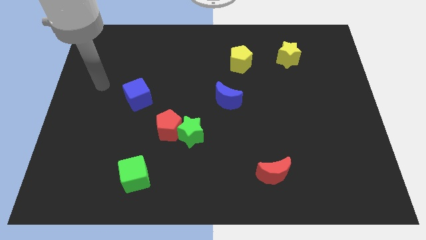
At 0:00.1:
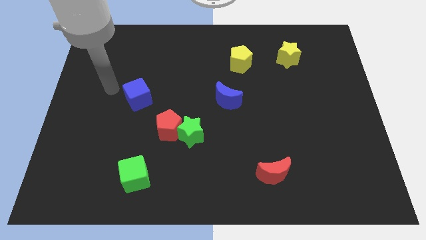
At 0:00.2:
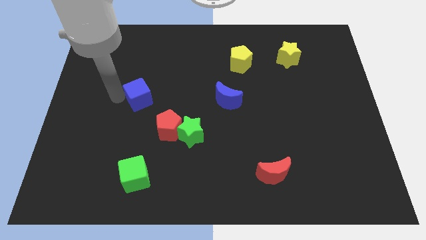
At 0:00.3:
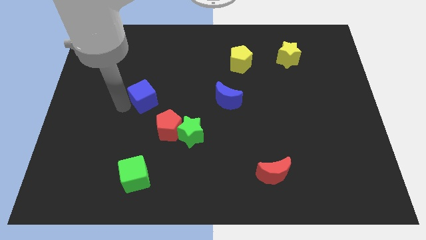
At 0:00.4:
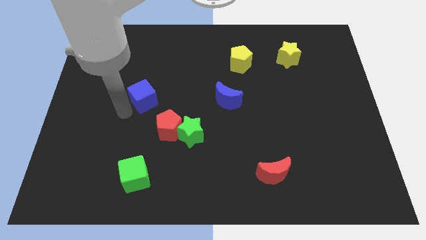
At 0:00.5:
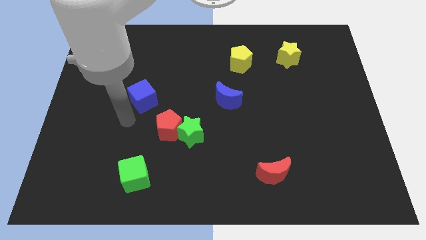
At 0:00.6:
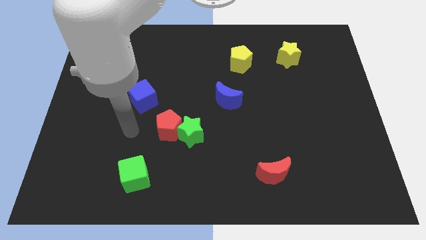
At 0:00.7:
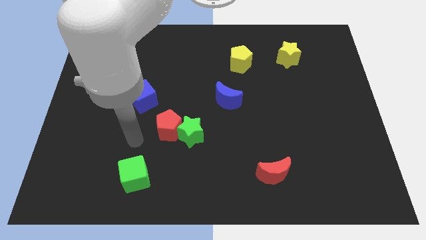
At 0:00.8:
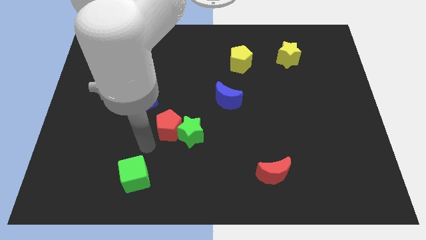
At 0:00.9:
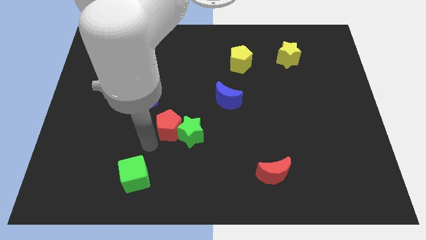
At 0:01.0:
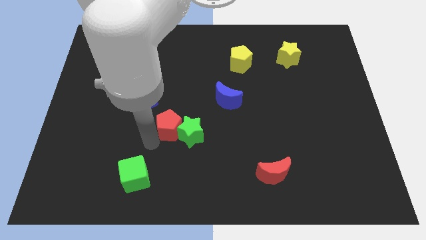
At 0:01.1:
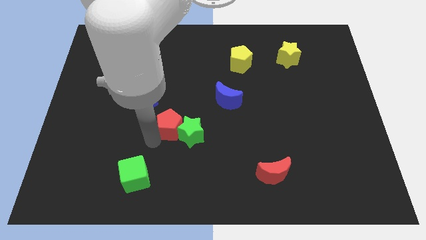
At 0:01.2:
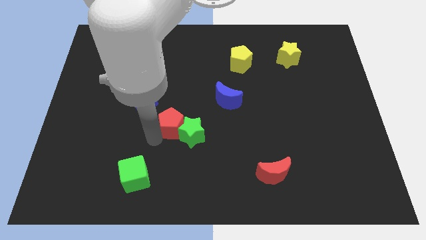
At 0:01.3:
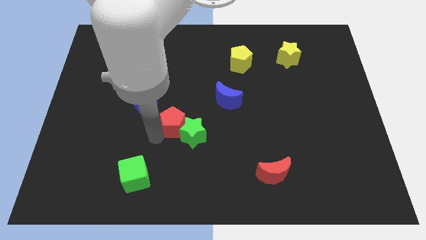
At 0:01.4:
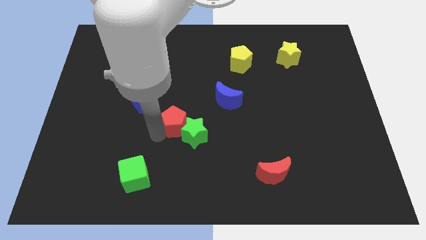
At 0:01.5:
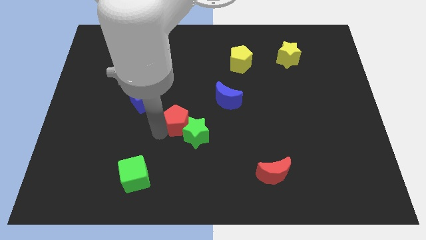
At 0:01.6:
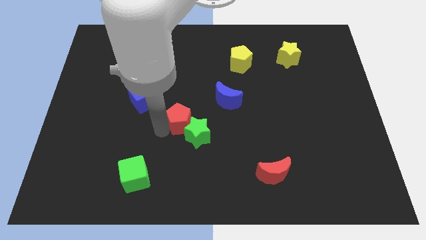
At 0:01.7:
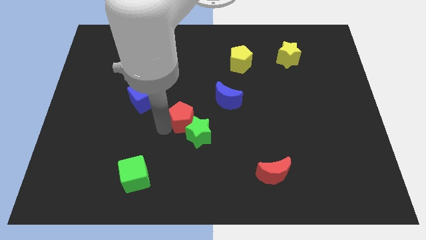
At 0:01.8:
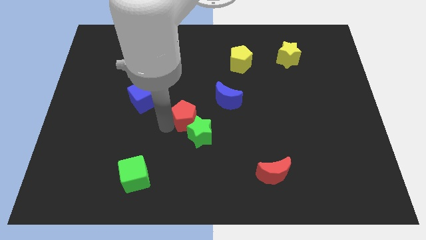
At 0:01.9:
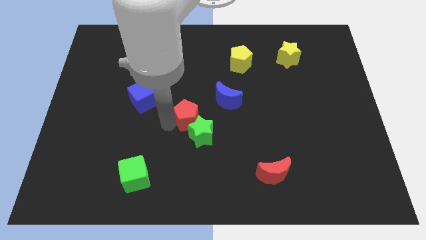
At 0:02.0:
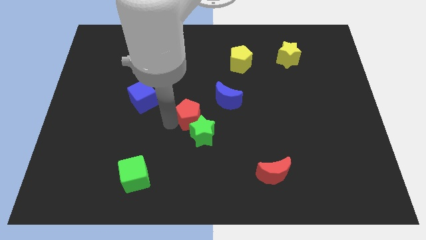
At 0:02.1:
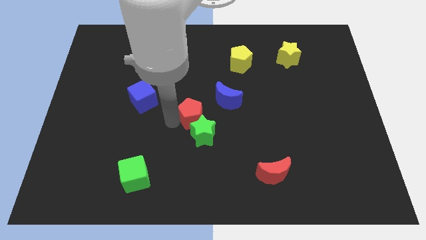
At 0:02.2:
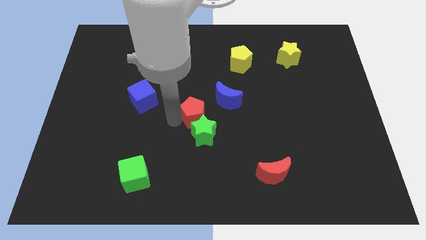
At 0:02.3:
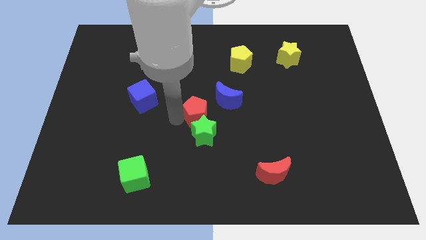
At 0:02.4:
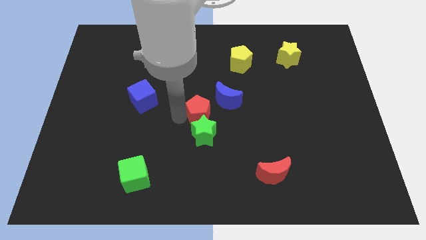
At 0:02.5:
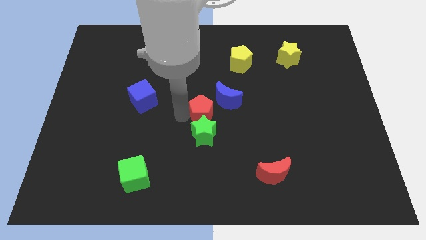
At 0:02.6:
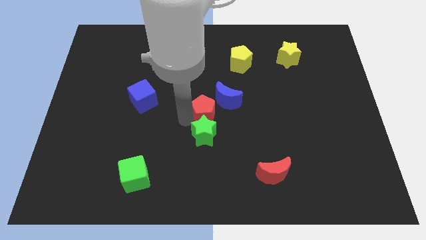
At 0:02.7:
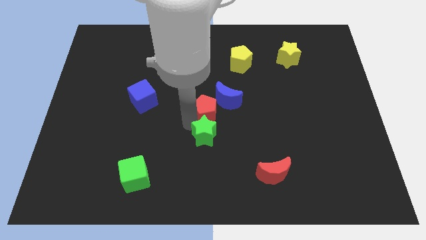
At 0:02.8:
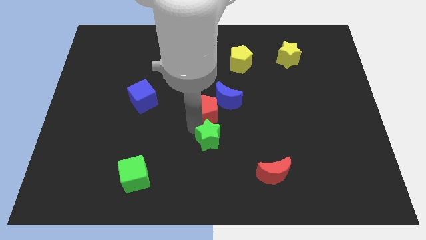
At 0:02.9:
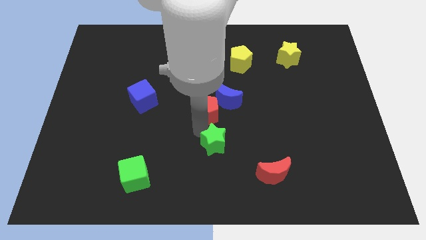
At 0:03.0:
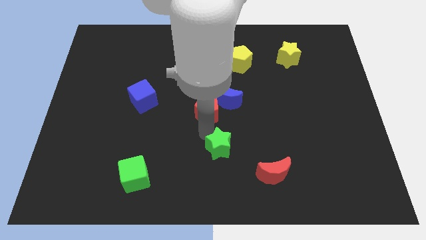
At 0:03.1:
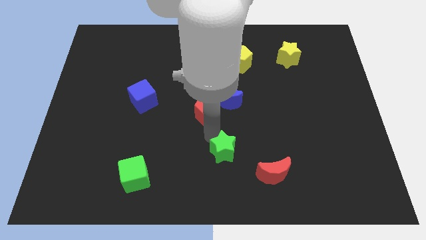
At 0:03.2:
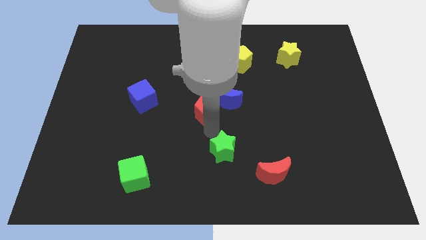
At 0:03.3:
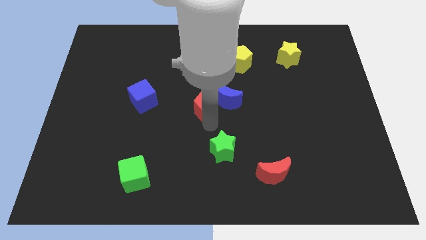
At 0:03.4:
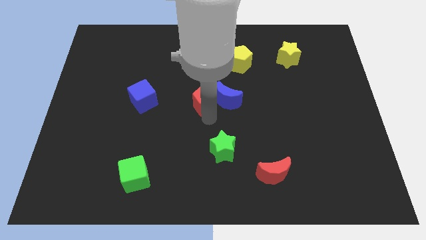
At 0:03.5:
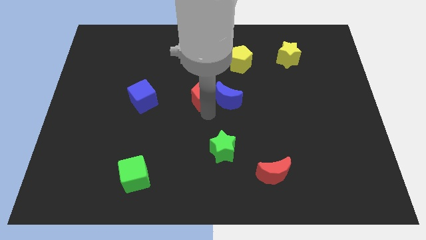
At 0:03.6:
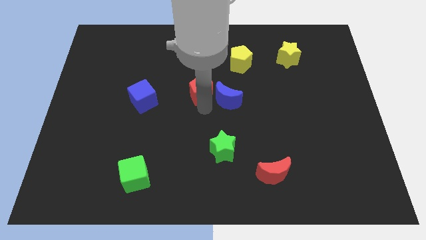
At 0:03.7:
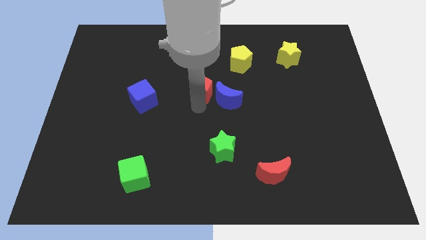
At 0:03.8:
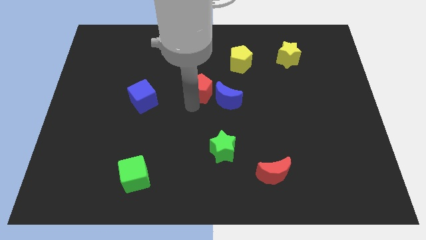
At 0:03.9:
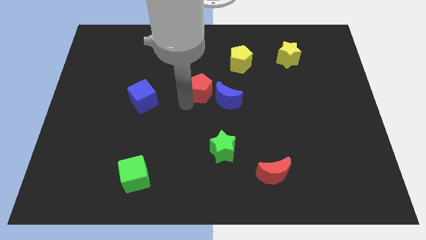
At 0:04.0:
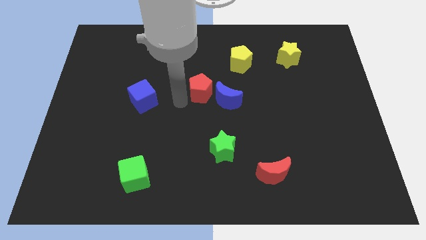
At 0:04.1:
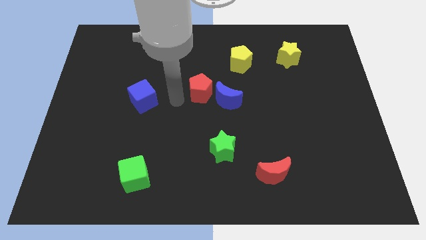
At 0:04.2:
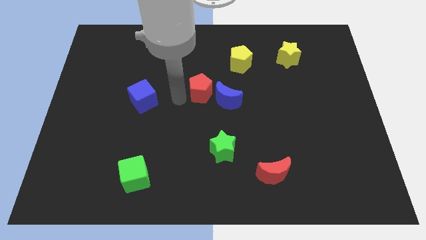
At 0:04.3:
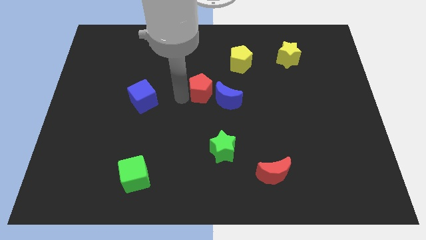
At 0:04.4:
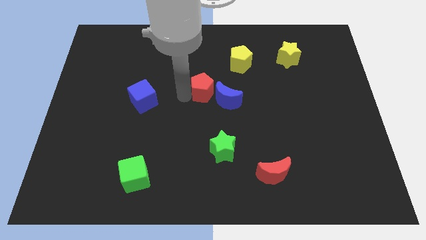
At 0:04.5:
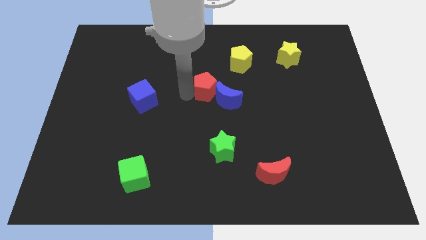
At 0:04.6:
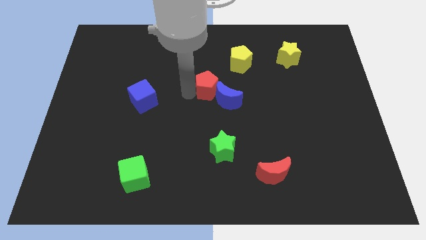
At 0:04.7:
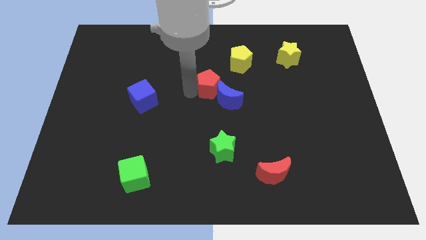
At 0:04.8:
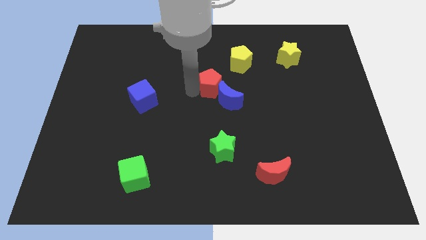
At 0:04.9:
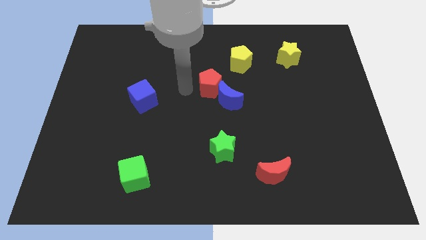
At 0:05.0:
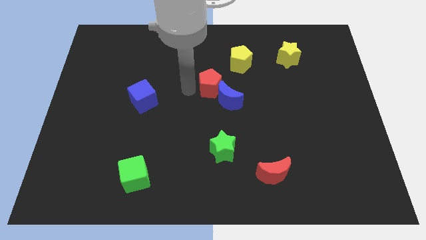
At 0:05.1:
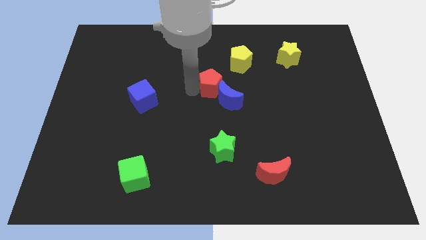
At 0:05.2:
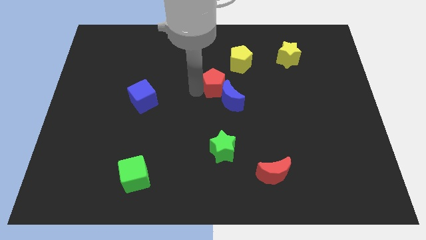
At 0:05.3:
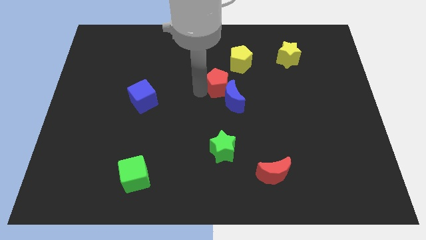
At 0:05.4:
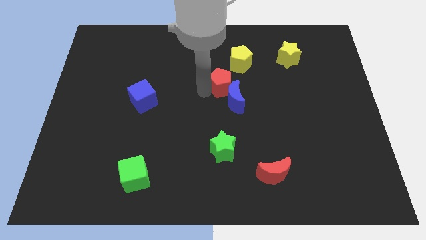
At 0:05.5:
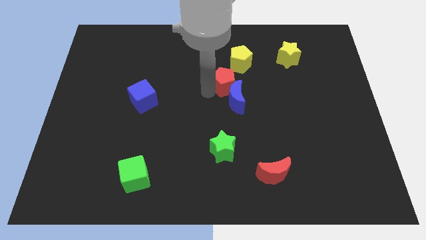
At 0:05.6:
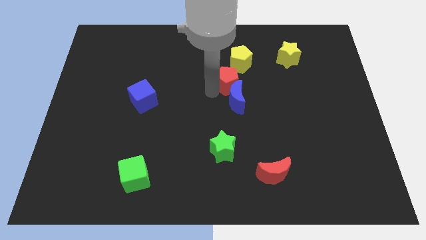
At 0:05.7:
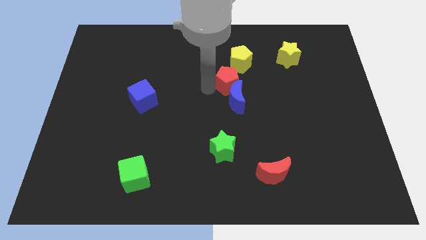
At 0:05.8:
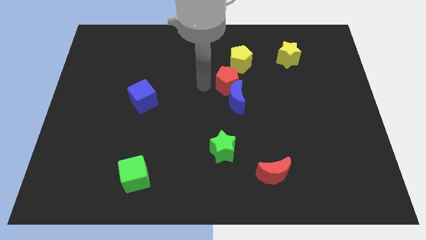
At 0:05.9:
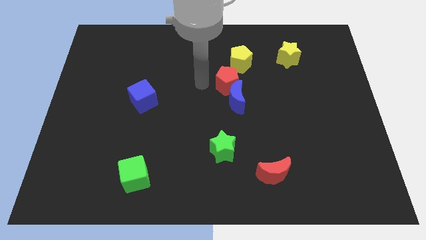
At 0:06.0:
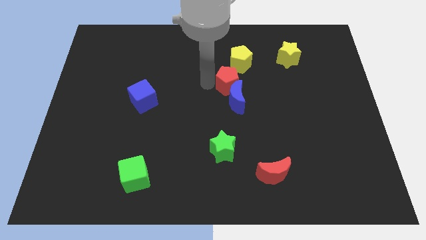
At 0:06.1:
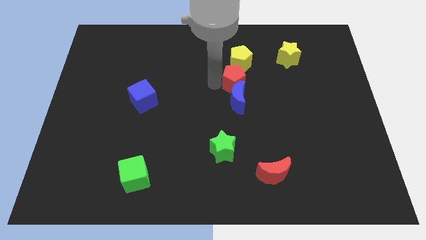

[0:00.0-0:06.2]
slide the red pentagon to the top right side of the blue moon

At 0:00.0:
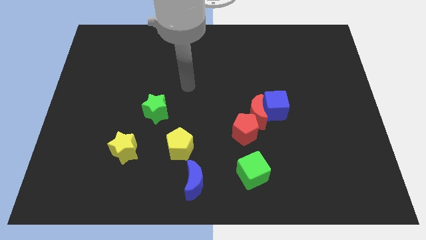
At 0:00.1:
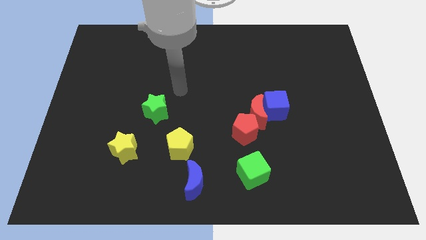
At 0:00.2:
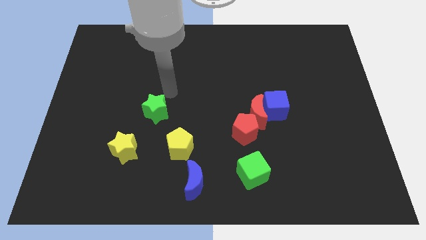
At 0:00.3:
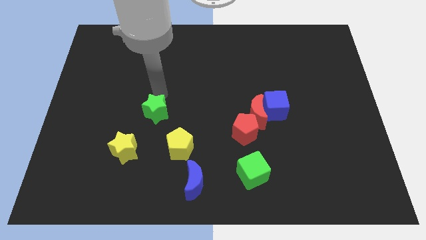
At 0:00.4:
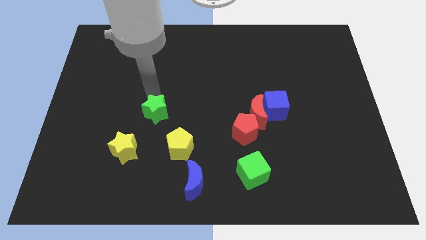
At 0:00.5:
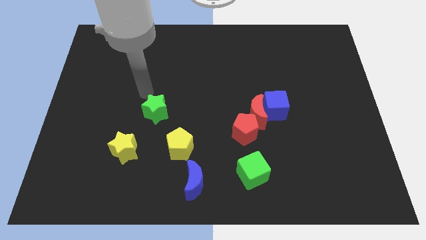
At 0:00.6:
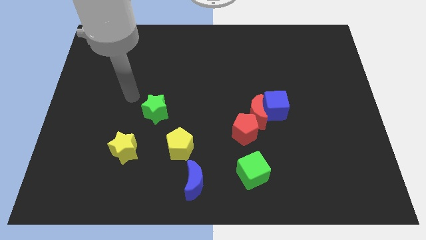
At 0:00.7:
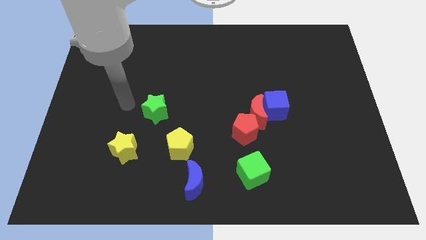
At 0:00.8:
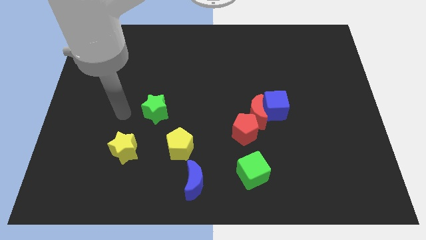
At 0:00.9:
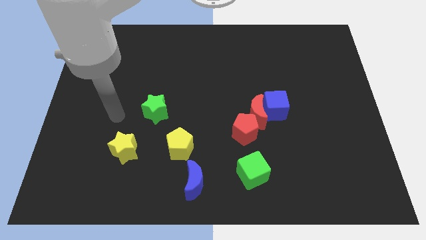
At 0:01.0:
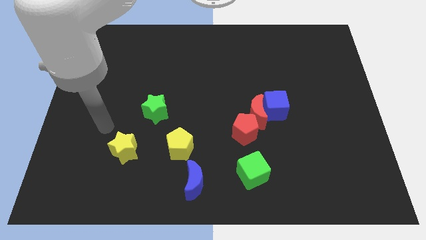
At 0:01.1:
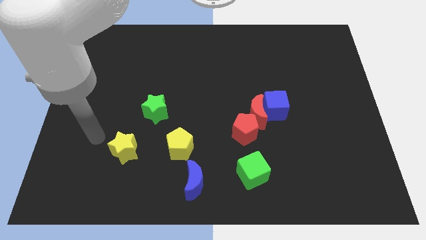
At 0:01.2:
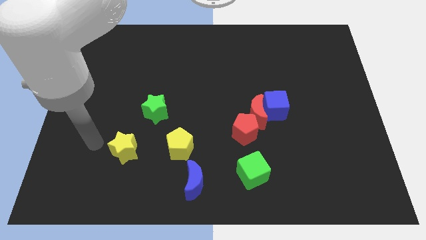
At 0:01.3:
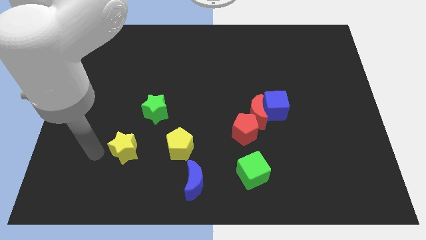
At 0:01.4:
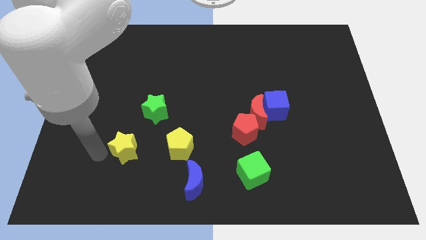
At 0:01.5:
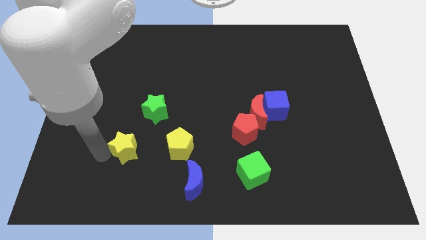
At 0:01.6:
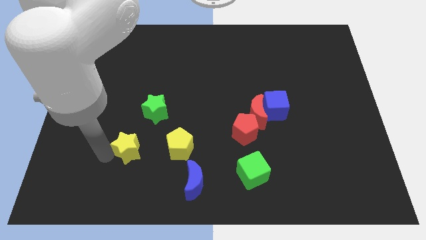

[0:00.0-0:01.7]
slide the yellow star to the bottom of the green star

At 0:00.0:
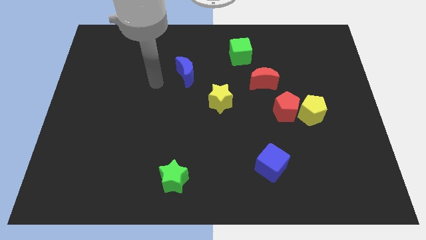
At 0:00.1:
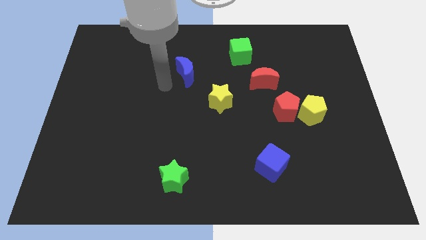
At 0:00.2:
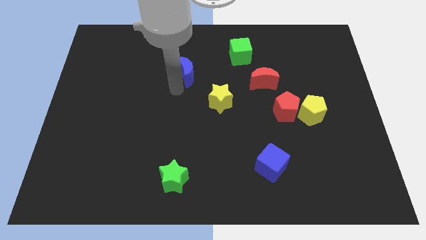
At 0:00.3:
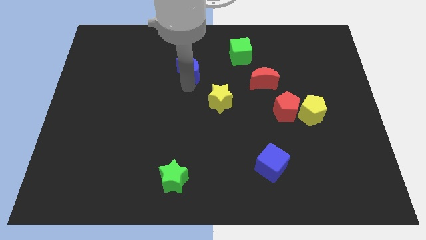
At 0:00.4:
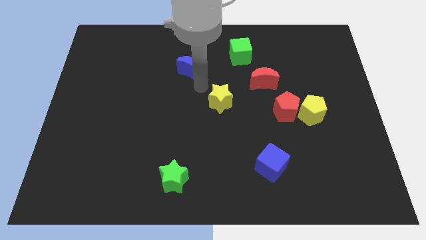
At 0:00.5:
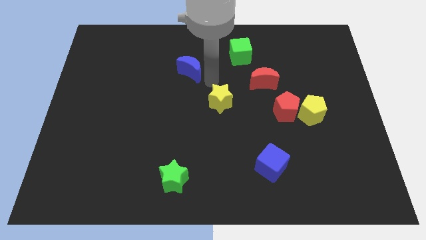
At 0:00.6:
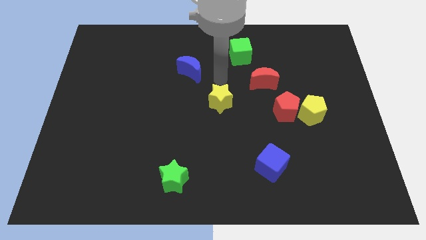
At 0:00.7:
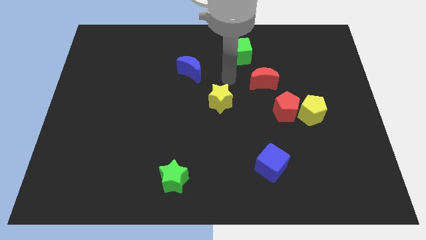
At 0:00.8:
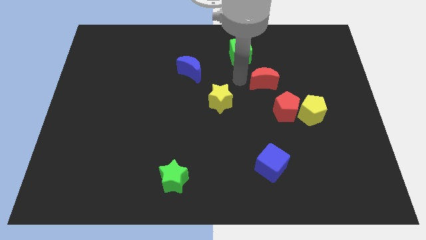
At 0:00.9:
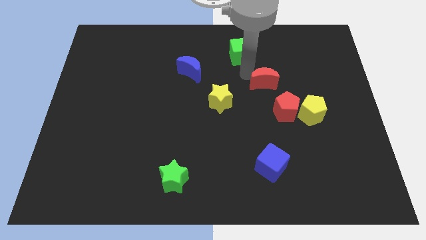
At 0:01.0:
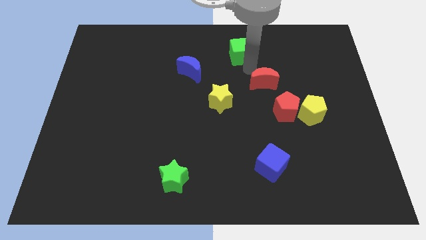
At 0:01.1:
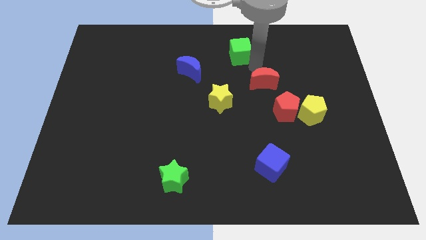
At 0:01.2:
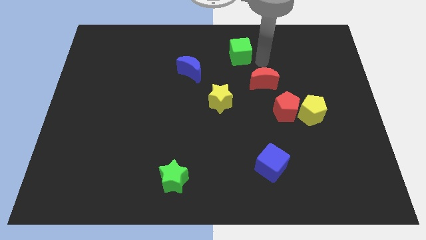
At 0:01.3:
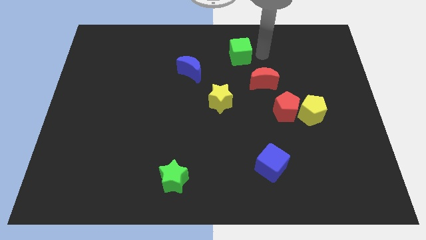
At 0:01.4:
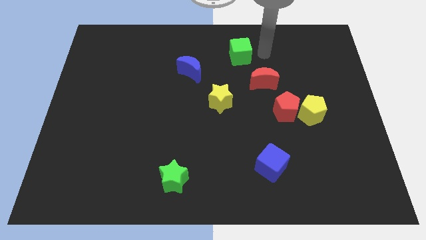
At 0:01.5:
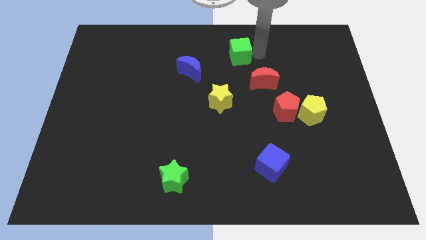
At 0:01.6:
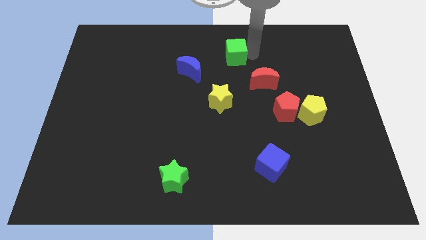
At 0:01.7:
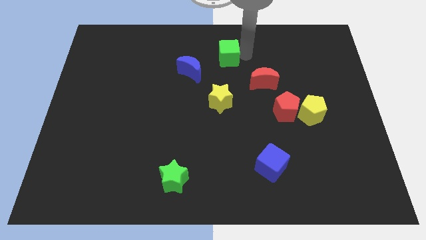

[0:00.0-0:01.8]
put the green cube to the top right side of the blue moon
